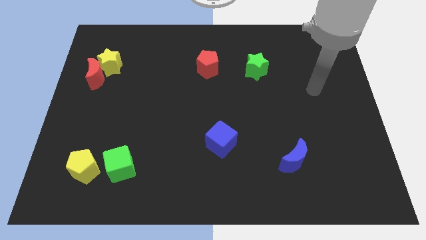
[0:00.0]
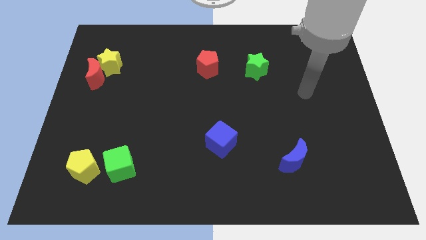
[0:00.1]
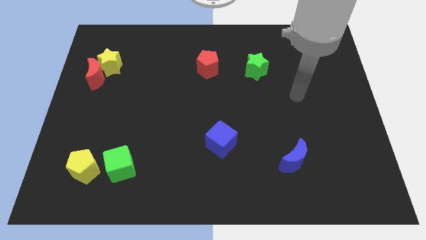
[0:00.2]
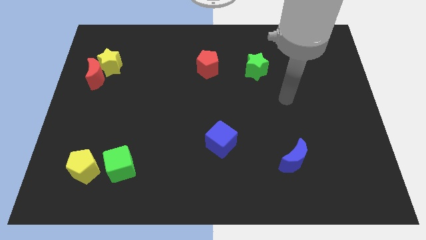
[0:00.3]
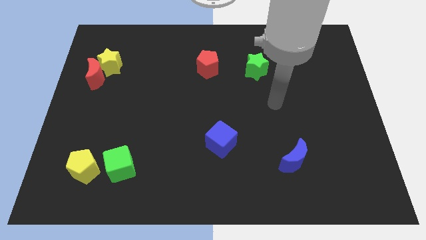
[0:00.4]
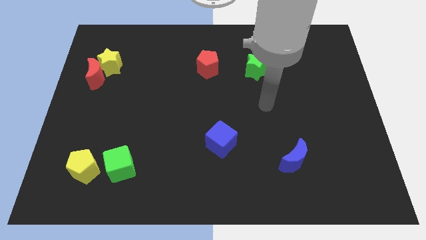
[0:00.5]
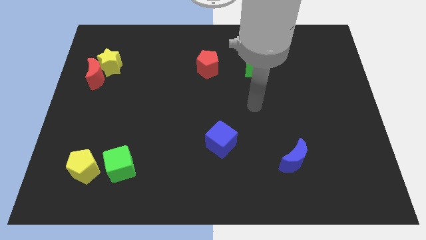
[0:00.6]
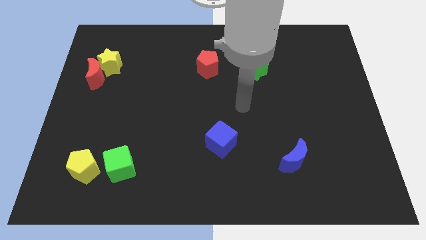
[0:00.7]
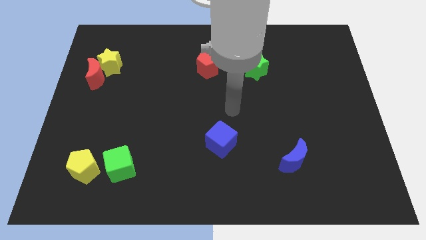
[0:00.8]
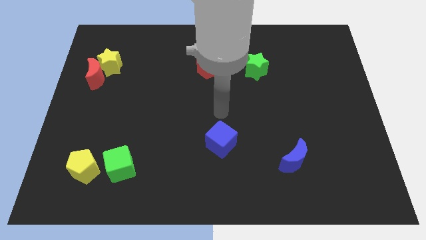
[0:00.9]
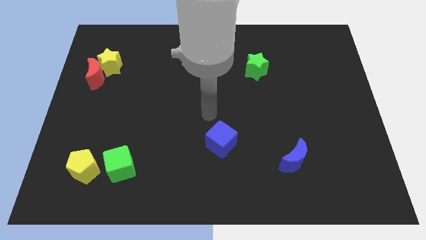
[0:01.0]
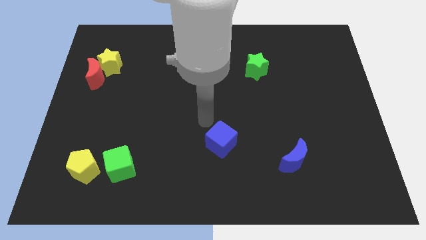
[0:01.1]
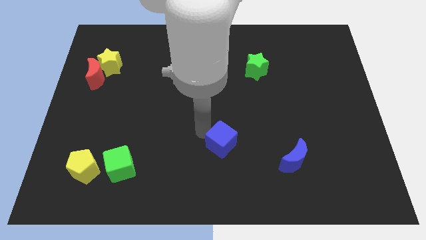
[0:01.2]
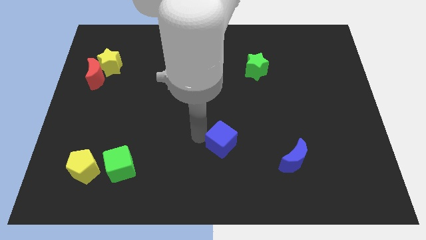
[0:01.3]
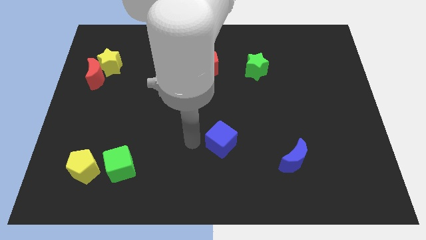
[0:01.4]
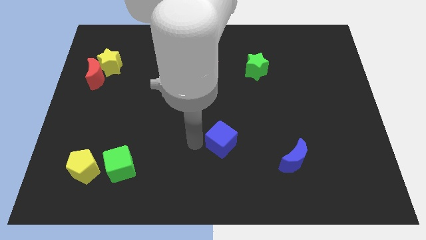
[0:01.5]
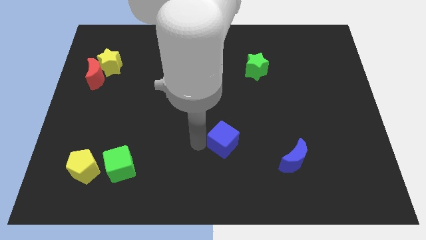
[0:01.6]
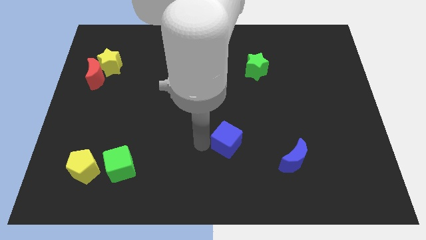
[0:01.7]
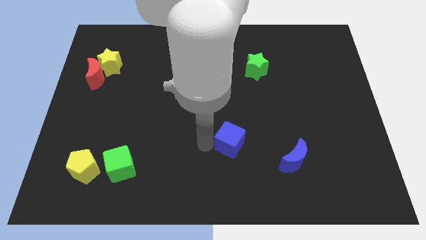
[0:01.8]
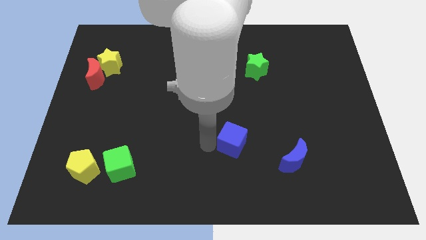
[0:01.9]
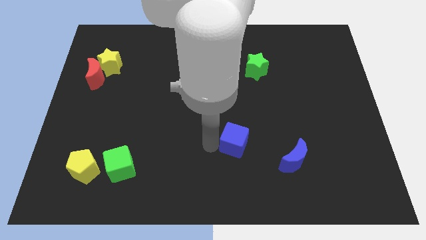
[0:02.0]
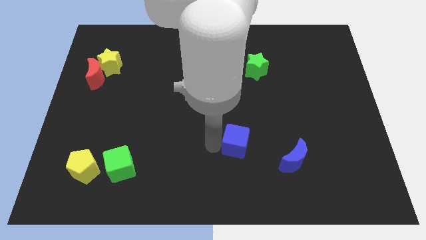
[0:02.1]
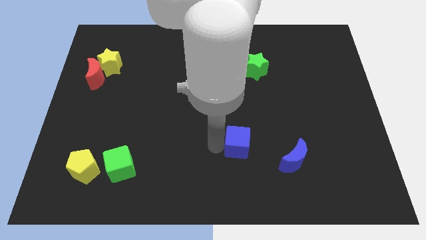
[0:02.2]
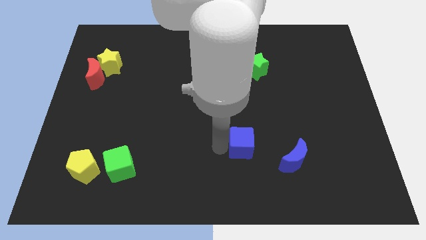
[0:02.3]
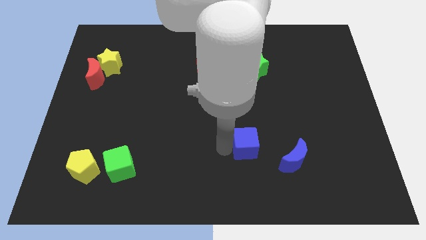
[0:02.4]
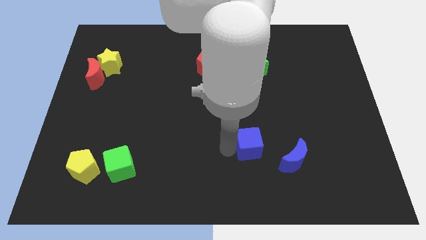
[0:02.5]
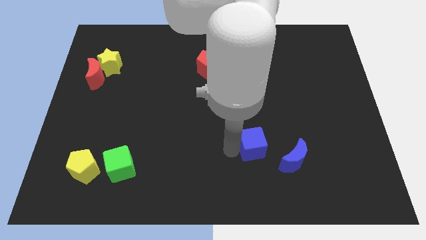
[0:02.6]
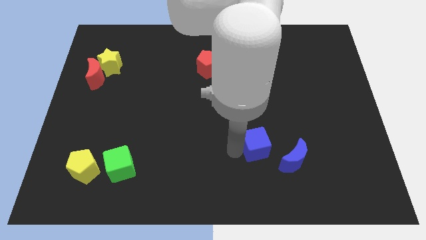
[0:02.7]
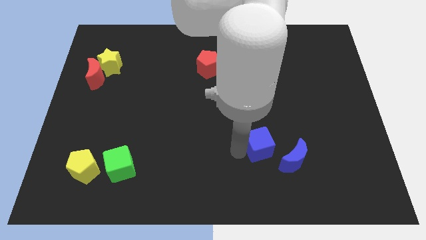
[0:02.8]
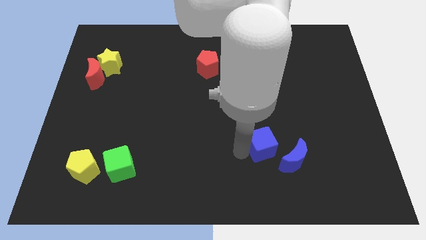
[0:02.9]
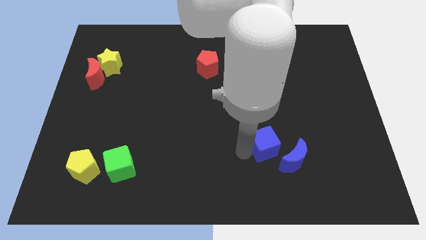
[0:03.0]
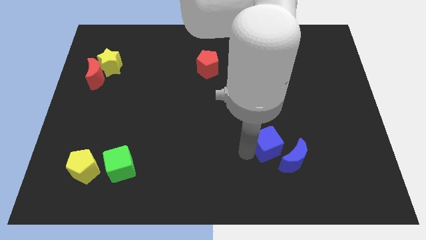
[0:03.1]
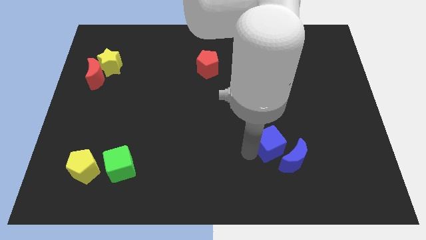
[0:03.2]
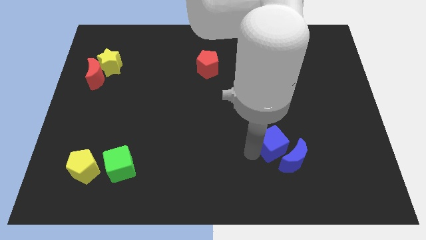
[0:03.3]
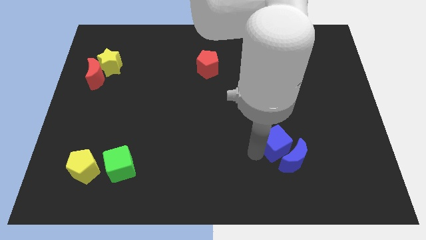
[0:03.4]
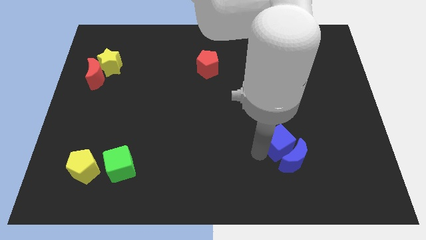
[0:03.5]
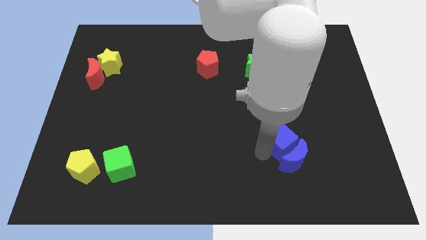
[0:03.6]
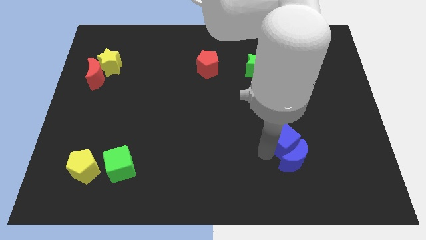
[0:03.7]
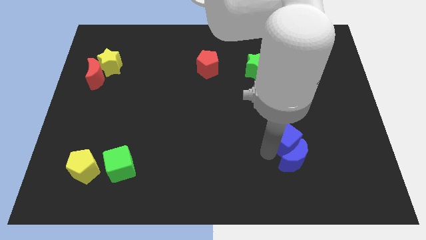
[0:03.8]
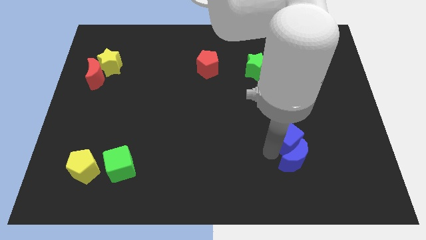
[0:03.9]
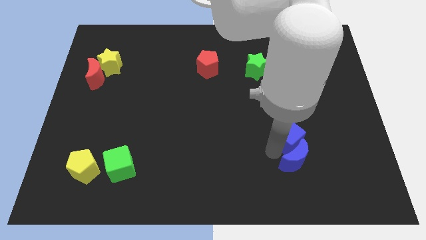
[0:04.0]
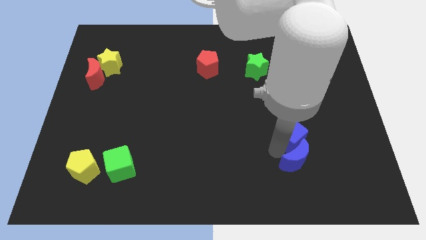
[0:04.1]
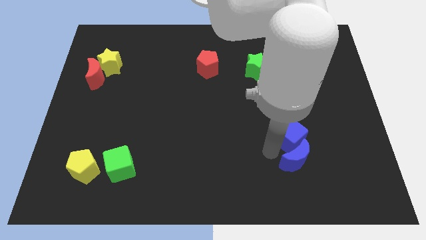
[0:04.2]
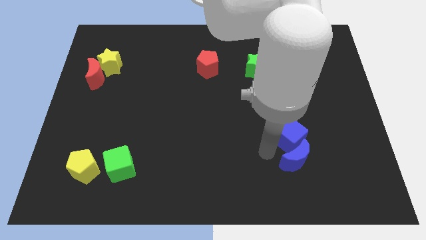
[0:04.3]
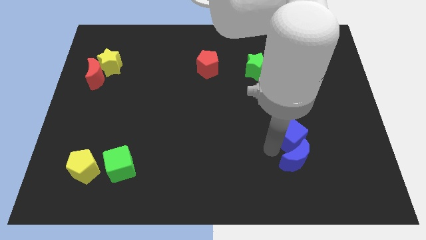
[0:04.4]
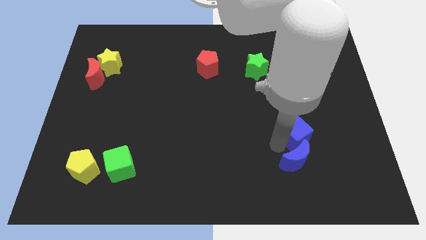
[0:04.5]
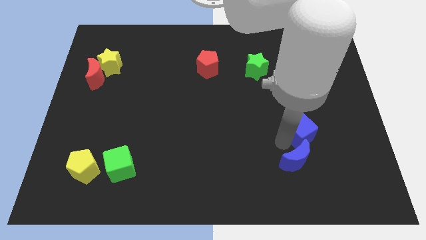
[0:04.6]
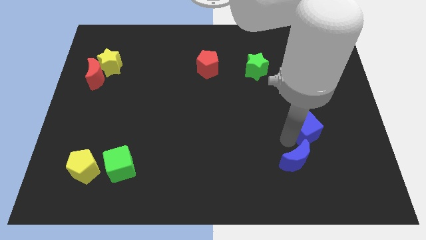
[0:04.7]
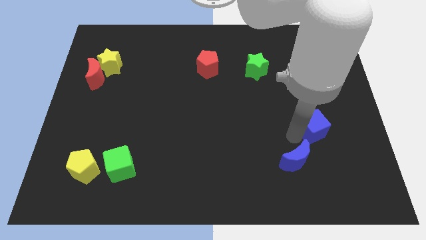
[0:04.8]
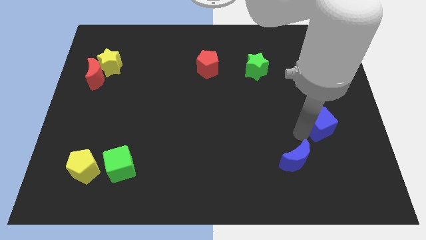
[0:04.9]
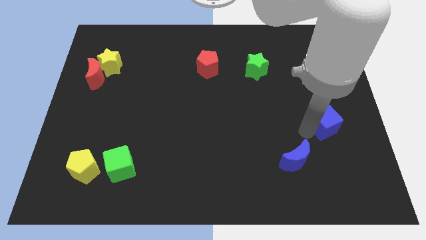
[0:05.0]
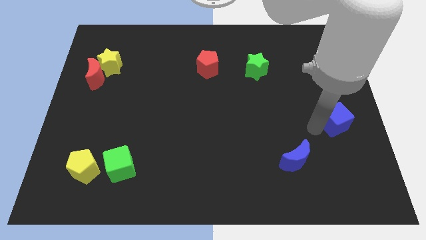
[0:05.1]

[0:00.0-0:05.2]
slide the blue cube to the center right

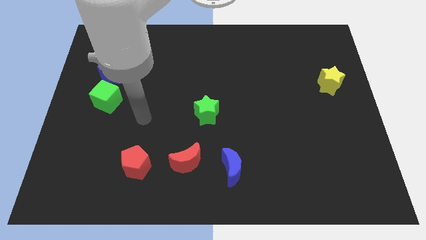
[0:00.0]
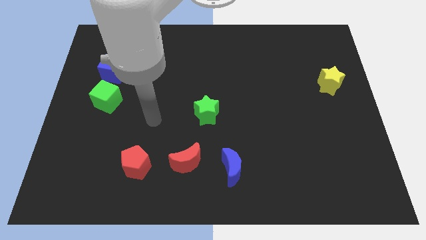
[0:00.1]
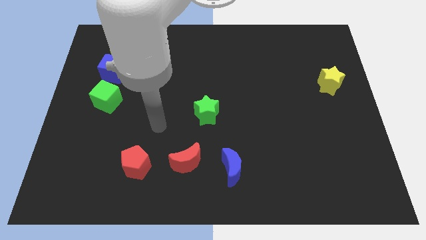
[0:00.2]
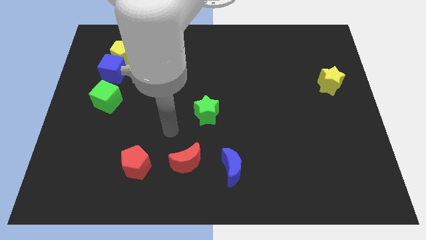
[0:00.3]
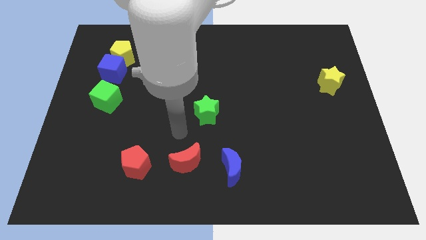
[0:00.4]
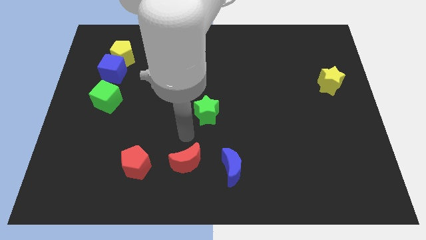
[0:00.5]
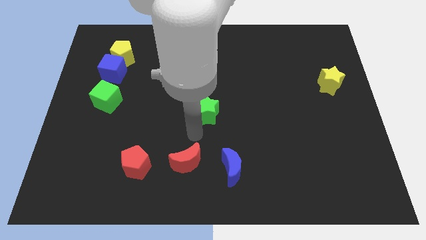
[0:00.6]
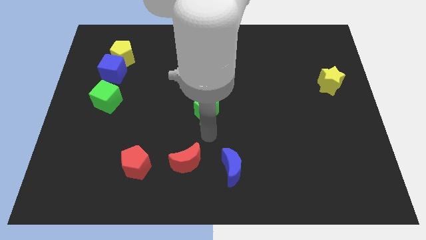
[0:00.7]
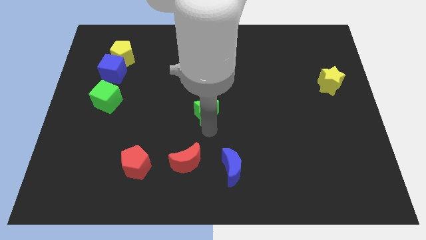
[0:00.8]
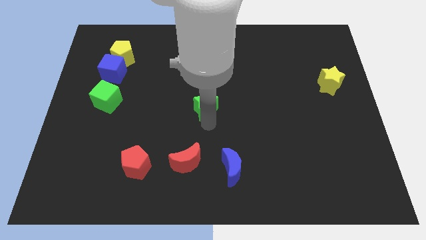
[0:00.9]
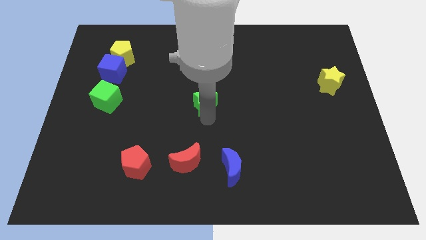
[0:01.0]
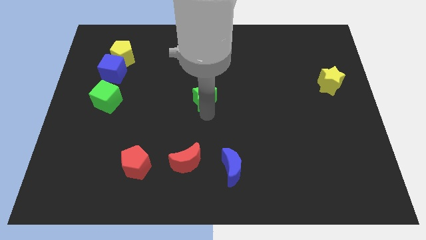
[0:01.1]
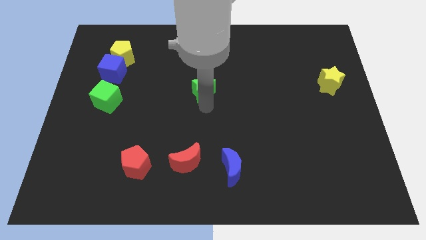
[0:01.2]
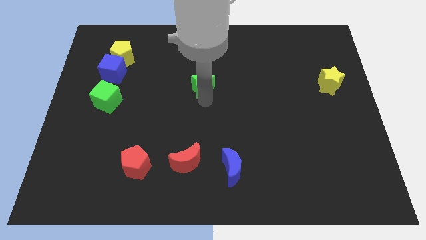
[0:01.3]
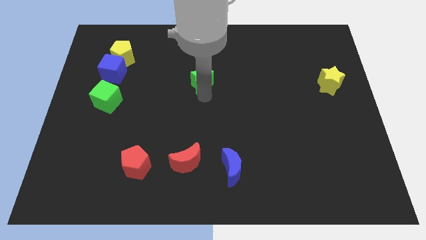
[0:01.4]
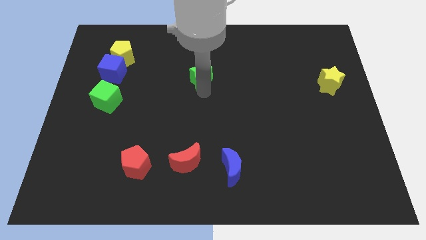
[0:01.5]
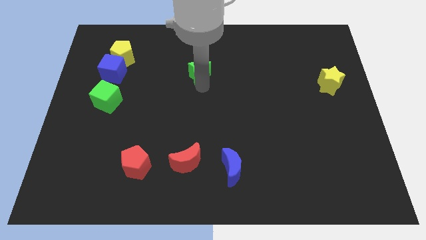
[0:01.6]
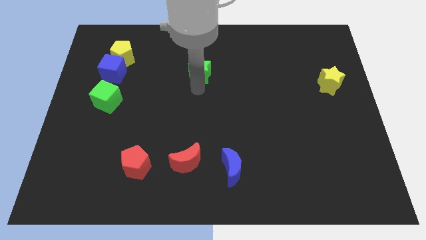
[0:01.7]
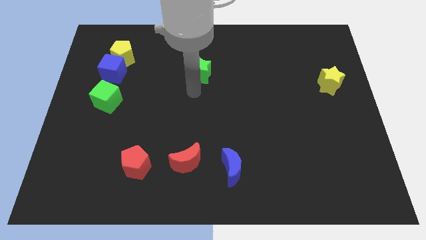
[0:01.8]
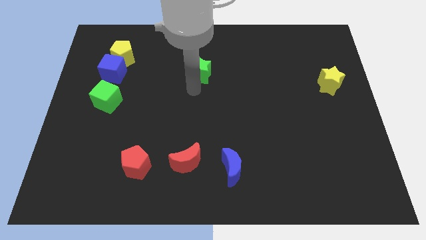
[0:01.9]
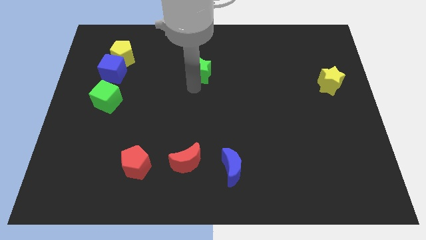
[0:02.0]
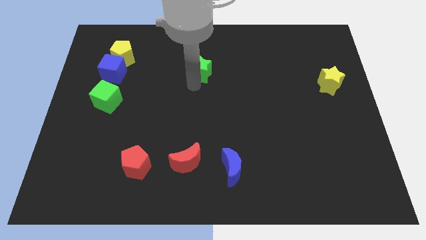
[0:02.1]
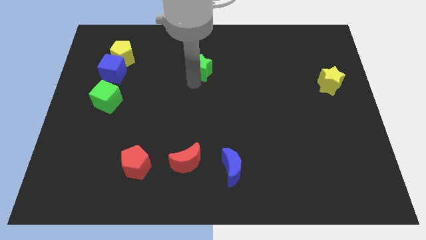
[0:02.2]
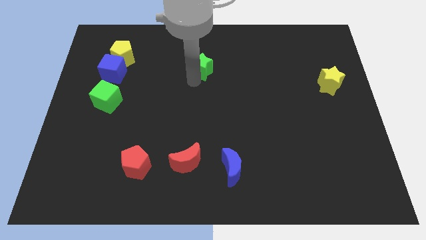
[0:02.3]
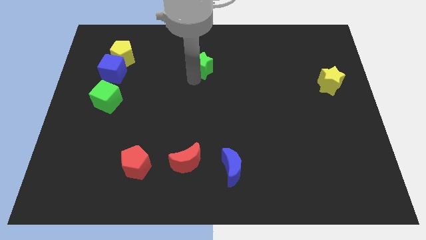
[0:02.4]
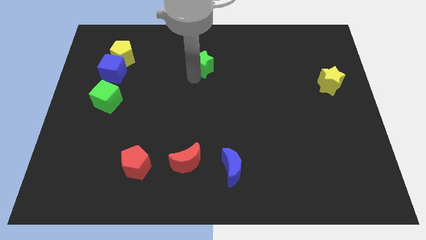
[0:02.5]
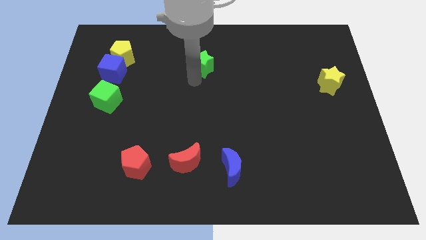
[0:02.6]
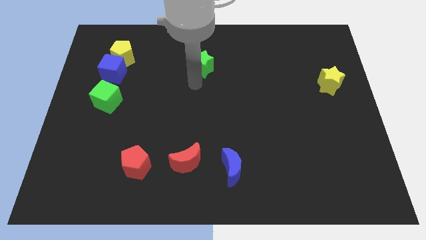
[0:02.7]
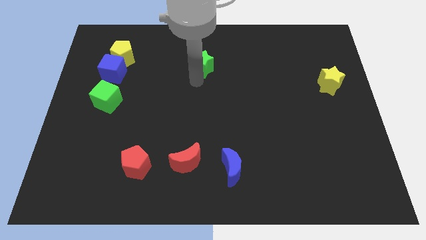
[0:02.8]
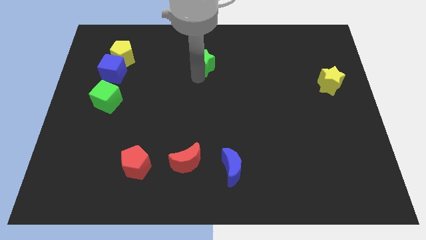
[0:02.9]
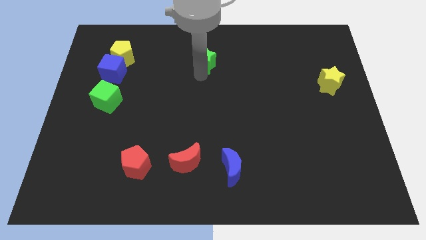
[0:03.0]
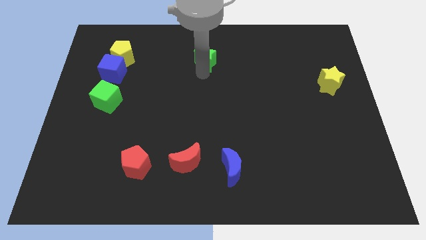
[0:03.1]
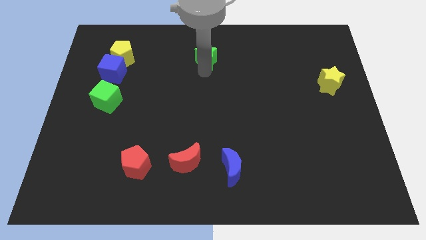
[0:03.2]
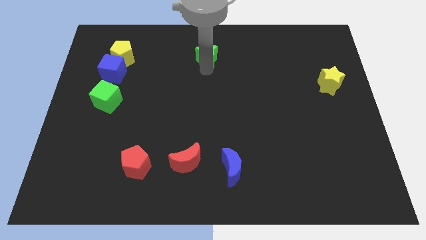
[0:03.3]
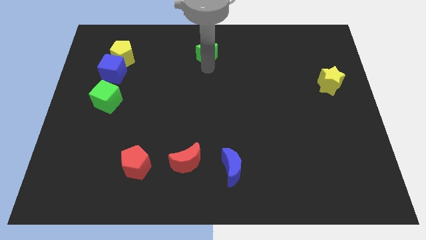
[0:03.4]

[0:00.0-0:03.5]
slide the green star to the top side
